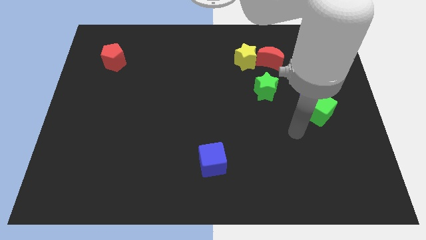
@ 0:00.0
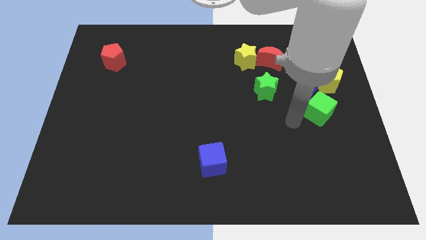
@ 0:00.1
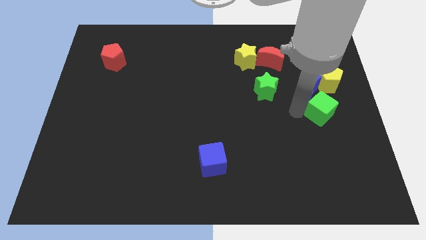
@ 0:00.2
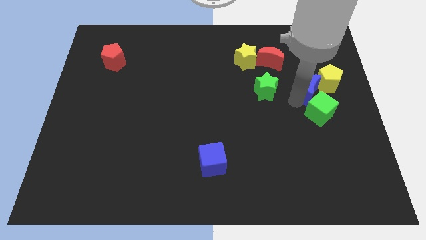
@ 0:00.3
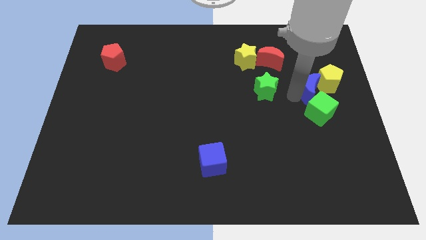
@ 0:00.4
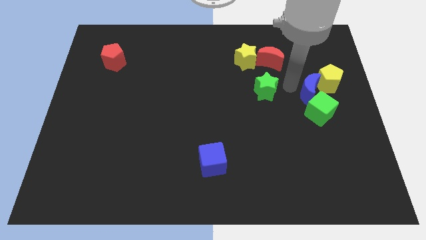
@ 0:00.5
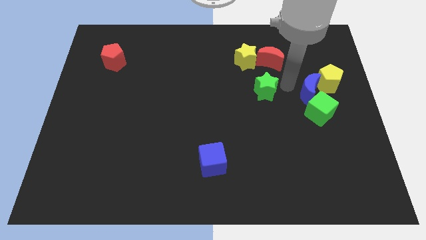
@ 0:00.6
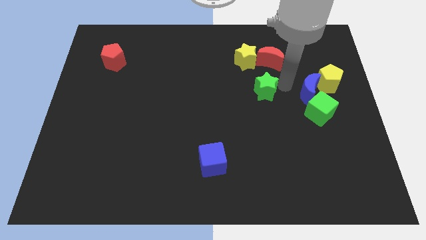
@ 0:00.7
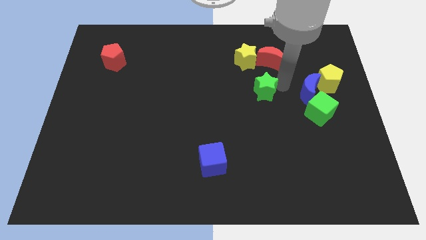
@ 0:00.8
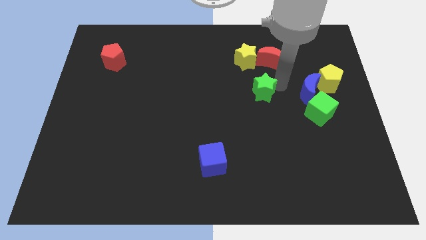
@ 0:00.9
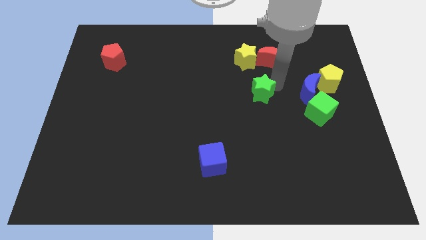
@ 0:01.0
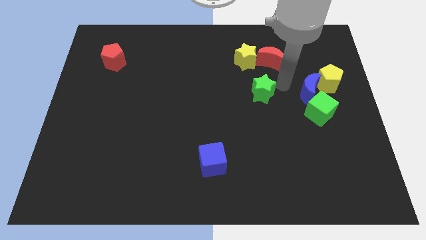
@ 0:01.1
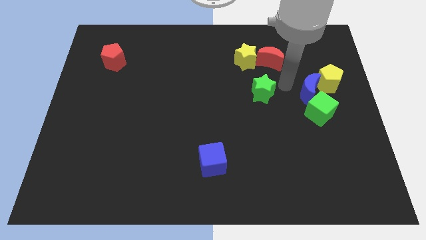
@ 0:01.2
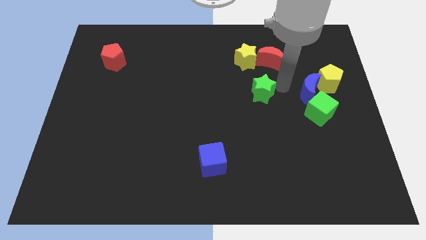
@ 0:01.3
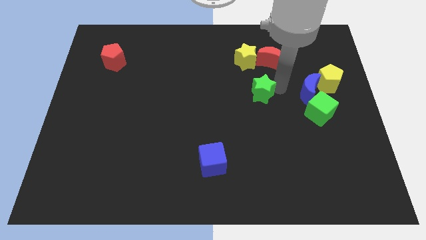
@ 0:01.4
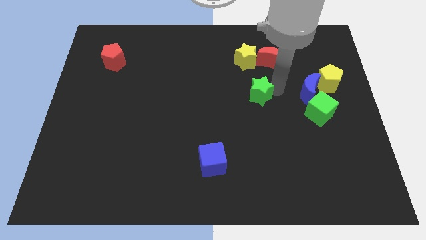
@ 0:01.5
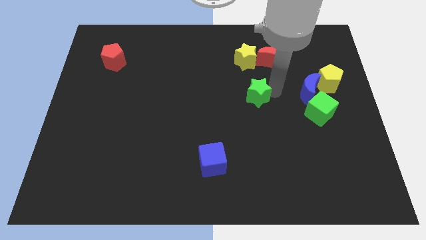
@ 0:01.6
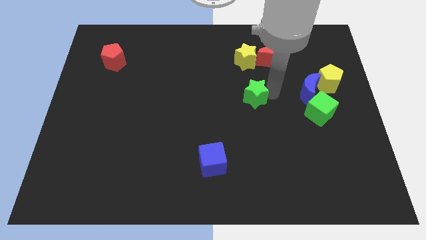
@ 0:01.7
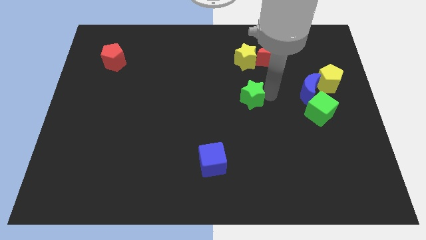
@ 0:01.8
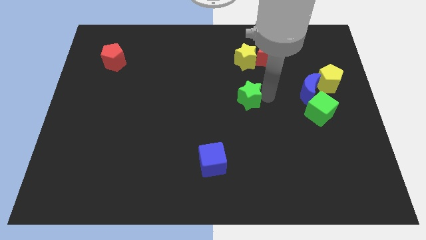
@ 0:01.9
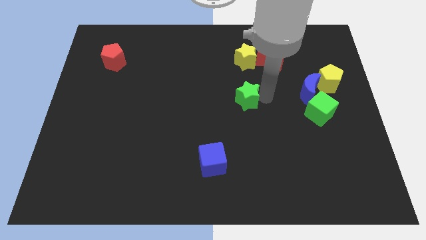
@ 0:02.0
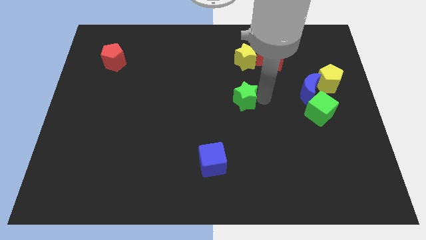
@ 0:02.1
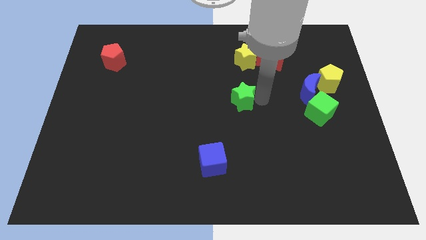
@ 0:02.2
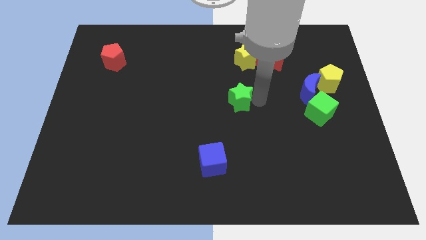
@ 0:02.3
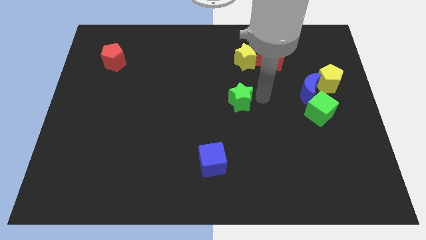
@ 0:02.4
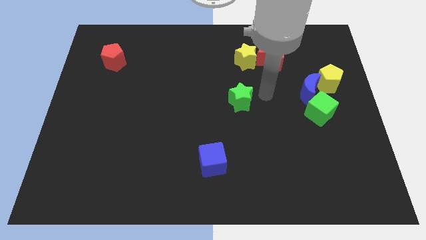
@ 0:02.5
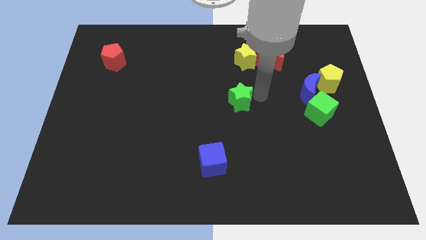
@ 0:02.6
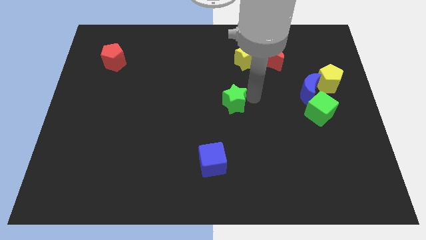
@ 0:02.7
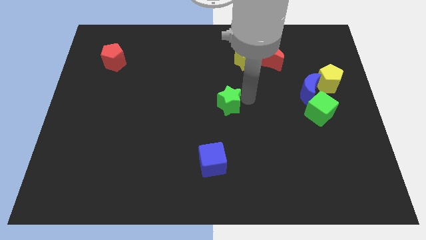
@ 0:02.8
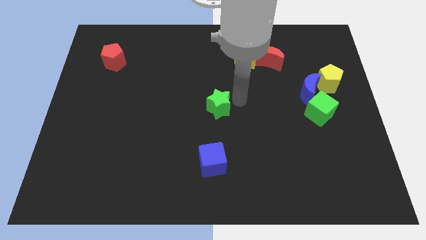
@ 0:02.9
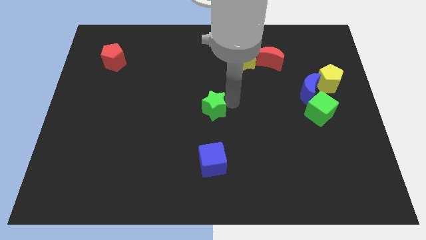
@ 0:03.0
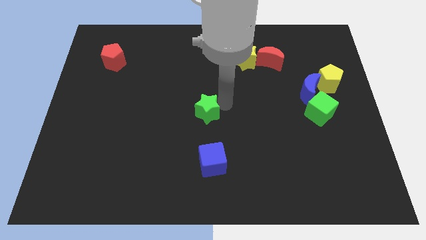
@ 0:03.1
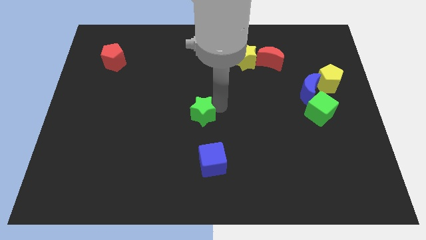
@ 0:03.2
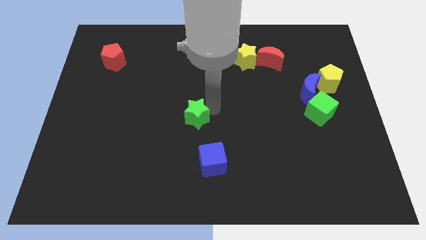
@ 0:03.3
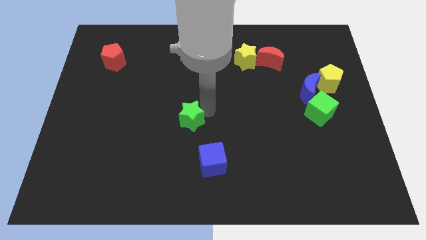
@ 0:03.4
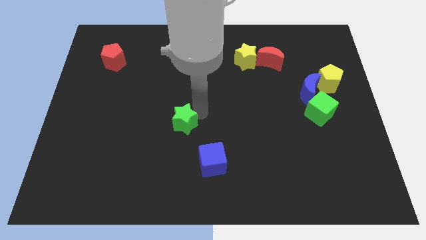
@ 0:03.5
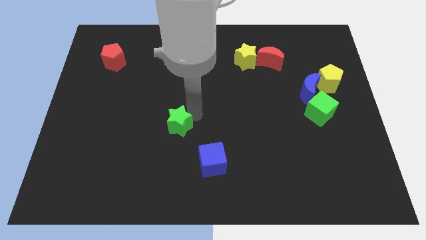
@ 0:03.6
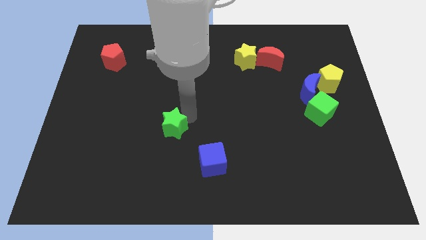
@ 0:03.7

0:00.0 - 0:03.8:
move the green star downwards and then left

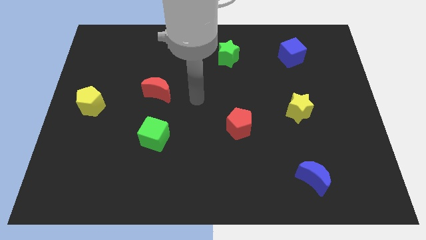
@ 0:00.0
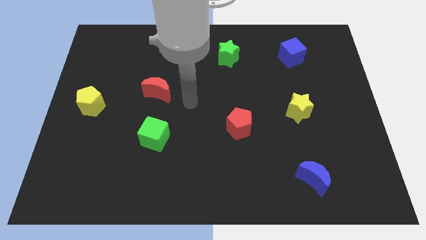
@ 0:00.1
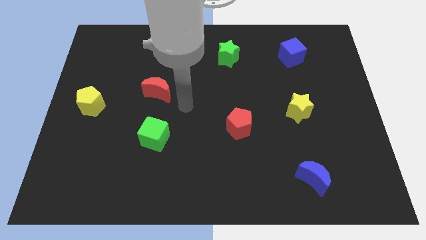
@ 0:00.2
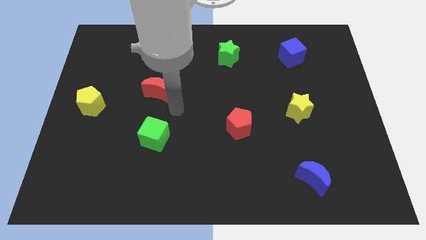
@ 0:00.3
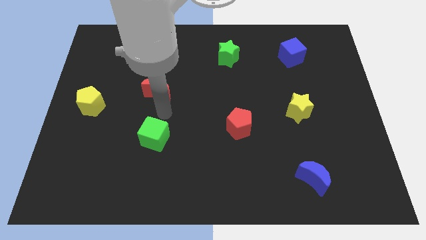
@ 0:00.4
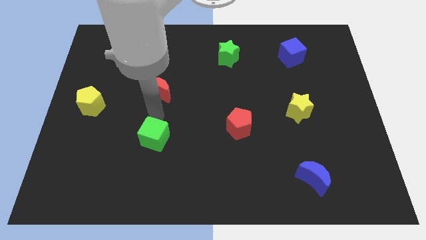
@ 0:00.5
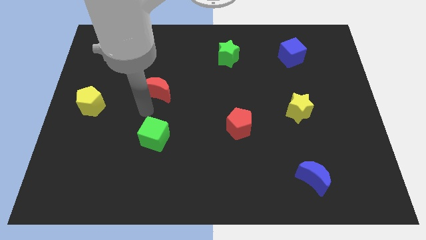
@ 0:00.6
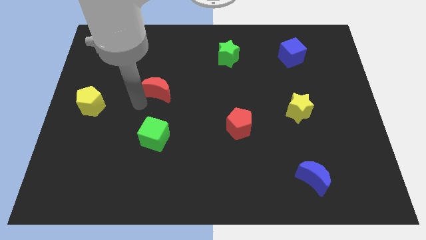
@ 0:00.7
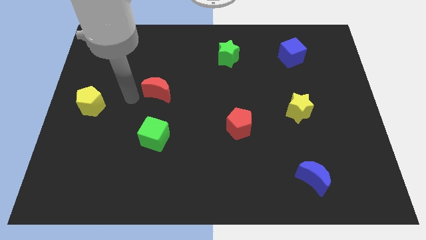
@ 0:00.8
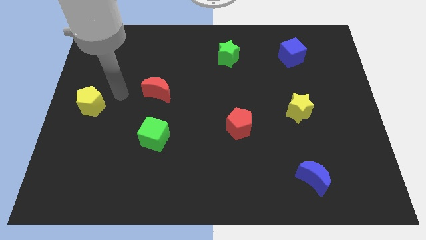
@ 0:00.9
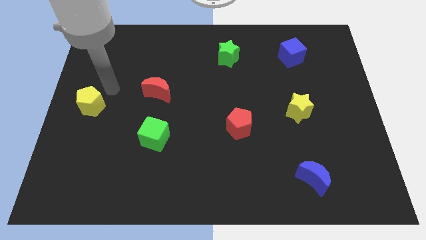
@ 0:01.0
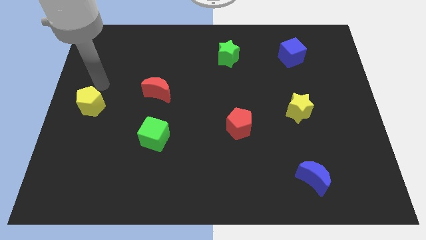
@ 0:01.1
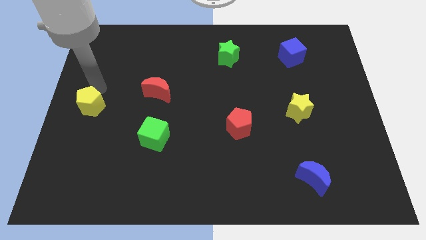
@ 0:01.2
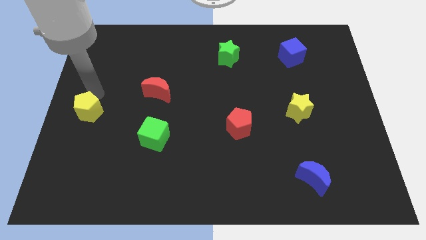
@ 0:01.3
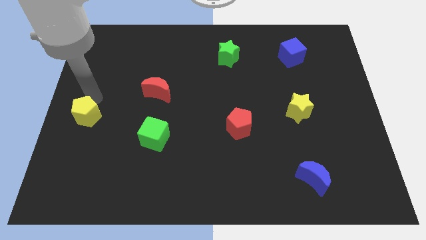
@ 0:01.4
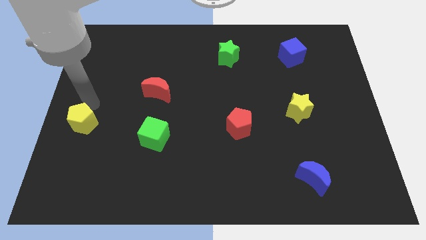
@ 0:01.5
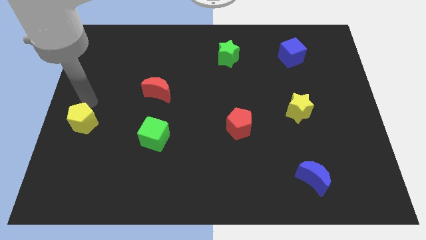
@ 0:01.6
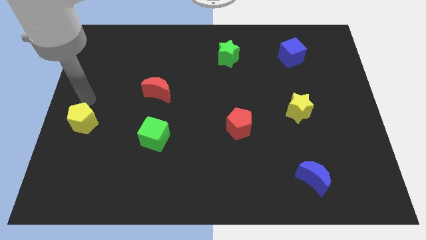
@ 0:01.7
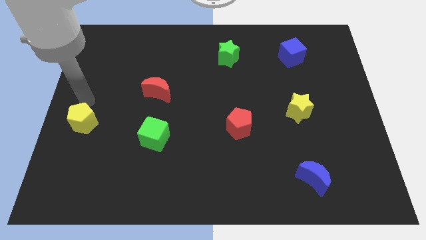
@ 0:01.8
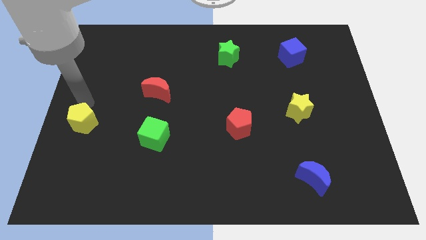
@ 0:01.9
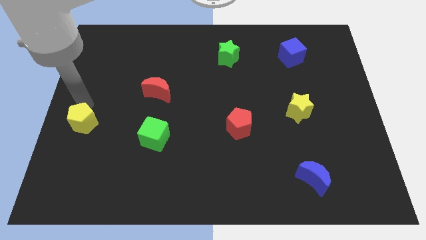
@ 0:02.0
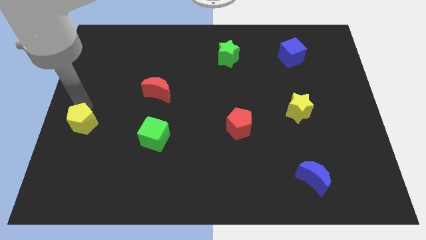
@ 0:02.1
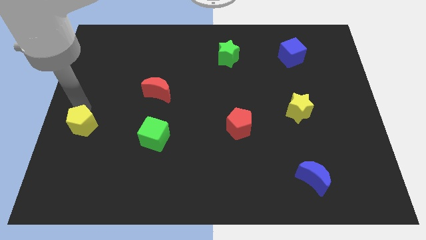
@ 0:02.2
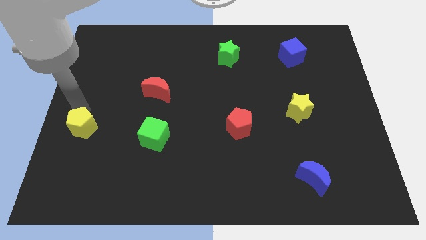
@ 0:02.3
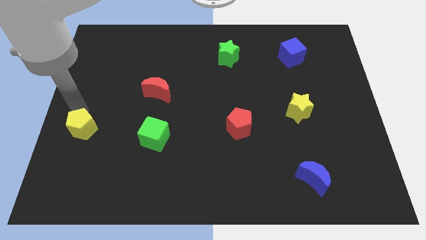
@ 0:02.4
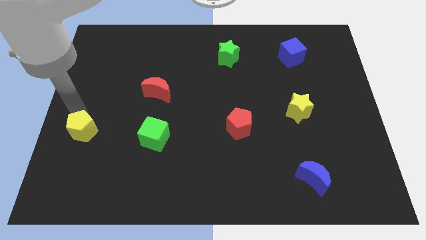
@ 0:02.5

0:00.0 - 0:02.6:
slide the yellow pentagon downwards a bit

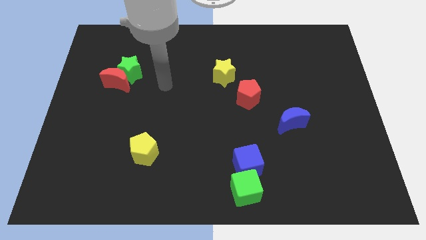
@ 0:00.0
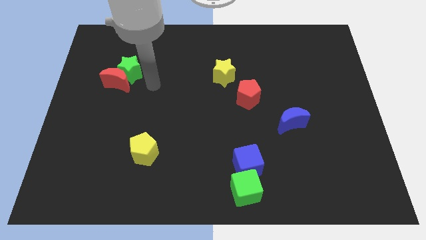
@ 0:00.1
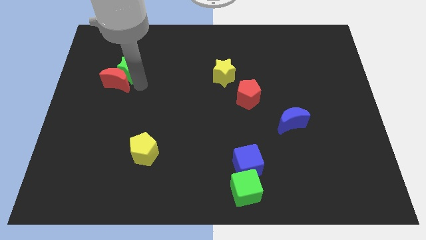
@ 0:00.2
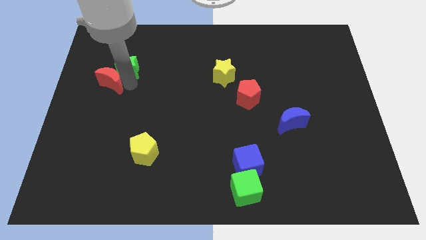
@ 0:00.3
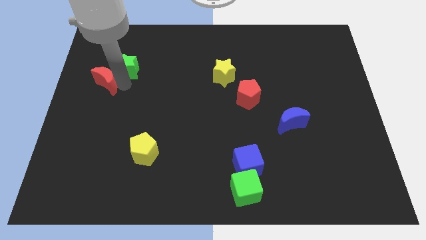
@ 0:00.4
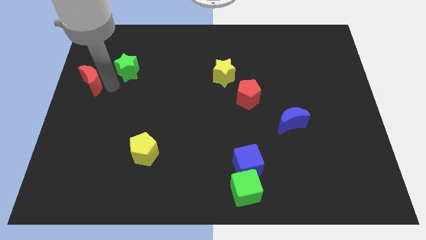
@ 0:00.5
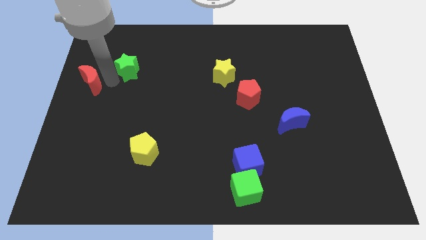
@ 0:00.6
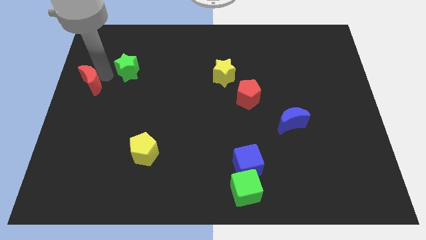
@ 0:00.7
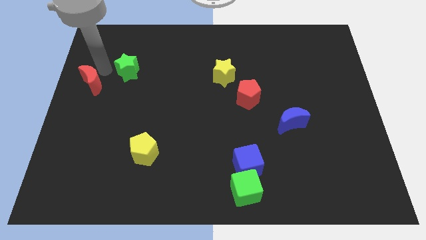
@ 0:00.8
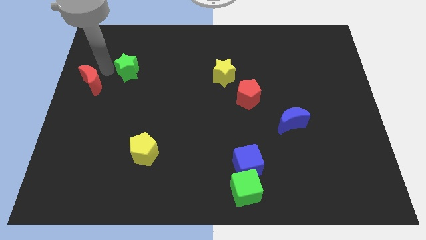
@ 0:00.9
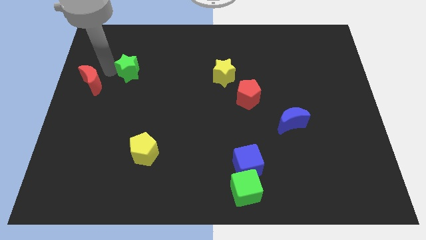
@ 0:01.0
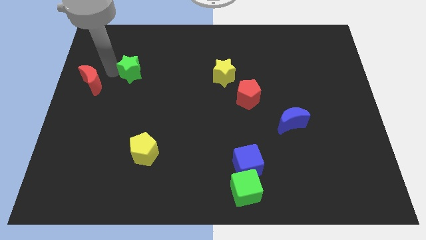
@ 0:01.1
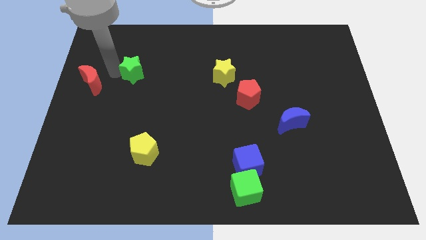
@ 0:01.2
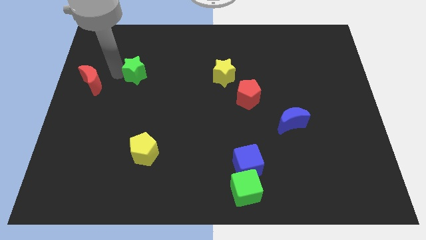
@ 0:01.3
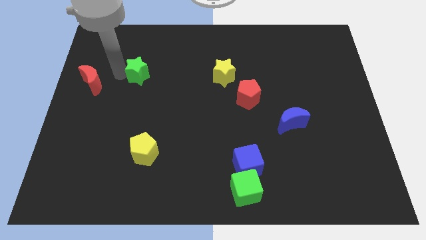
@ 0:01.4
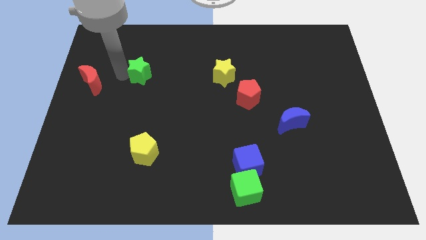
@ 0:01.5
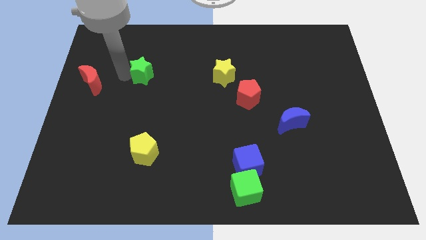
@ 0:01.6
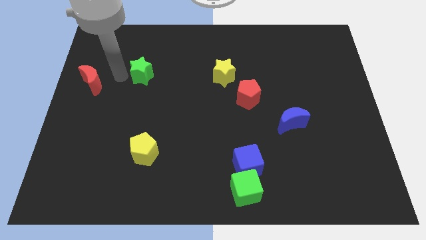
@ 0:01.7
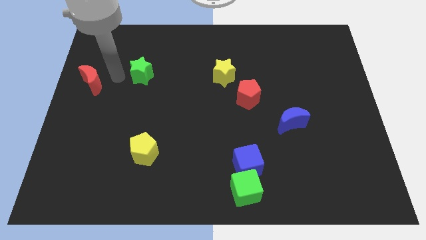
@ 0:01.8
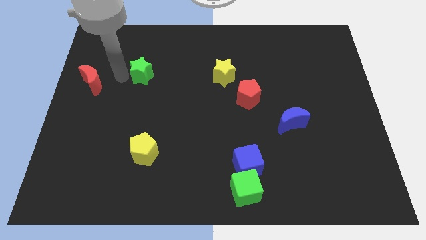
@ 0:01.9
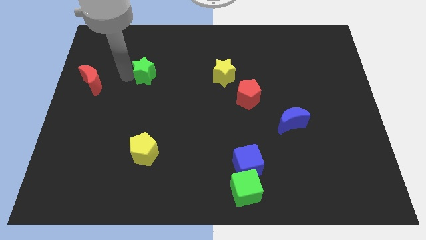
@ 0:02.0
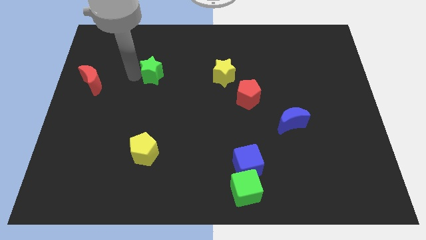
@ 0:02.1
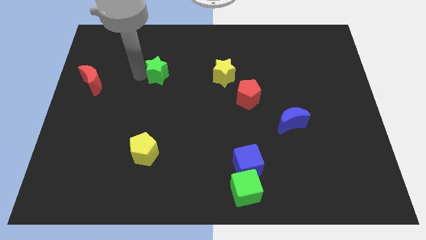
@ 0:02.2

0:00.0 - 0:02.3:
move the green star right a bit
